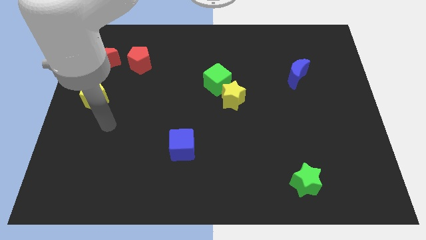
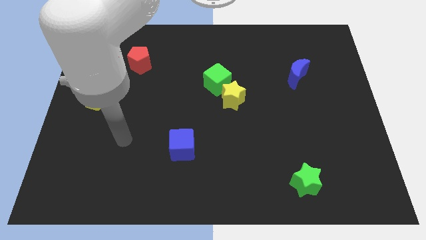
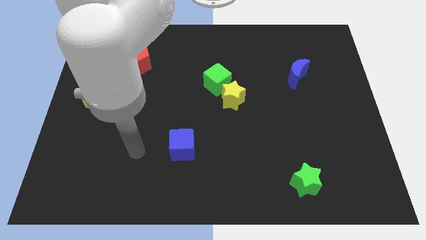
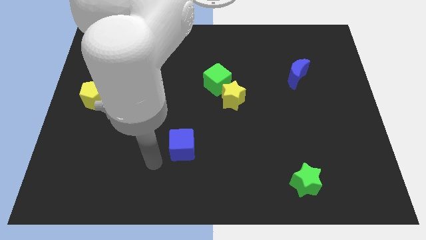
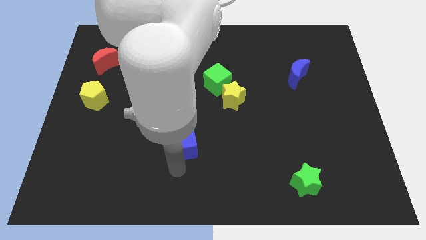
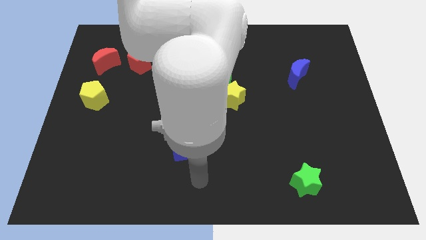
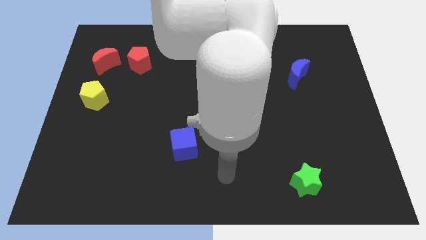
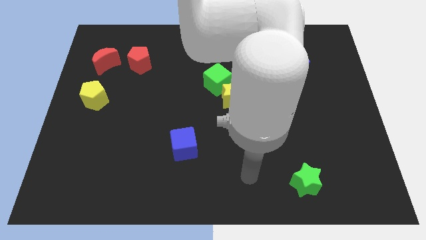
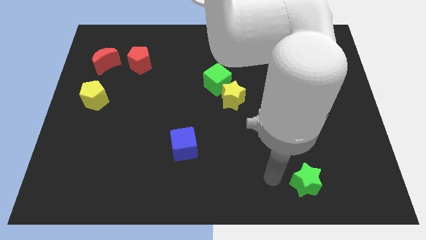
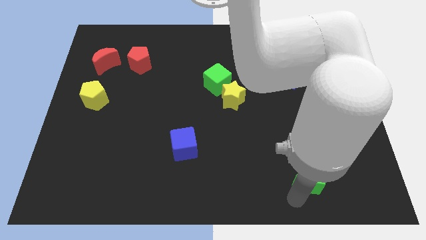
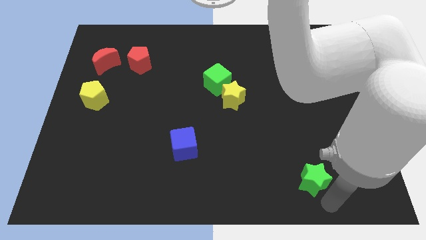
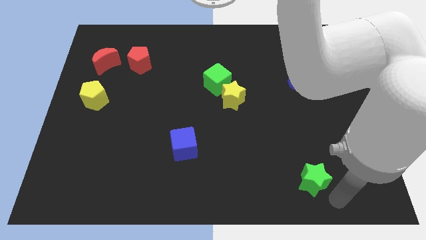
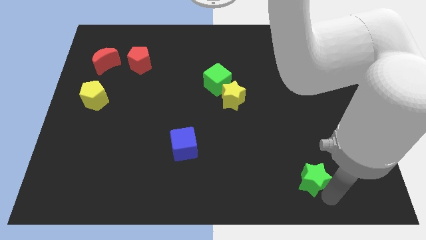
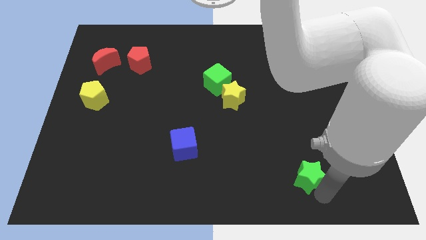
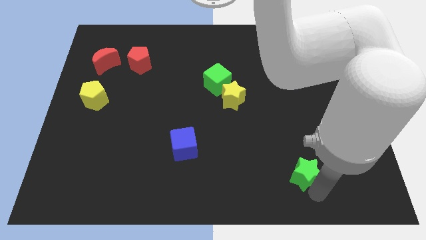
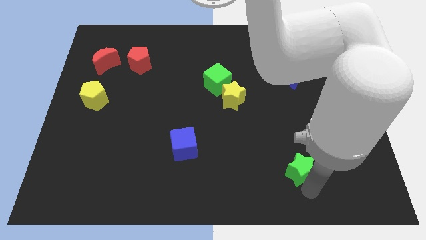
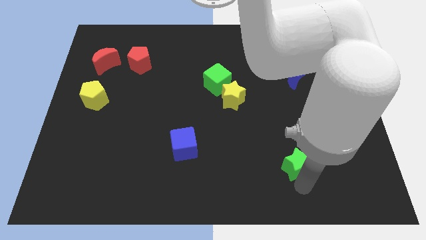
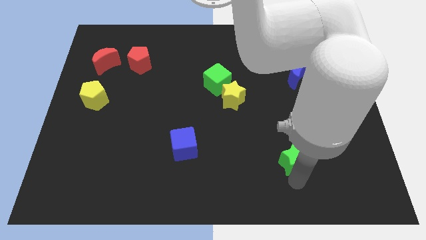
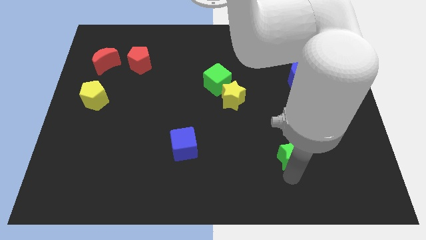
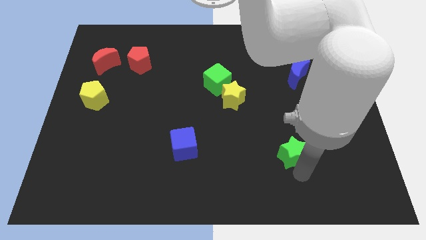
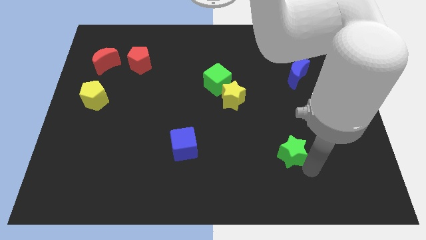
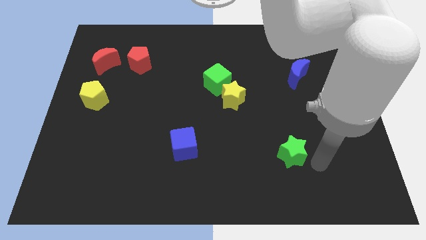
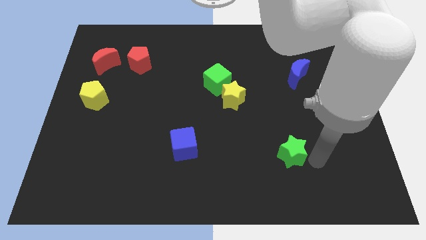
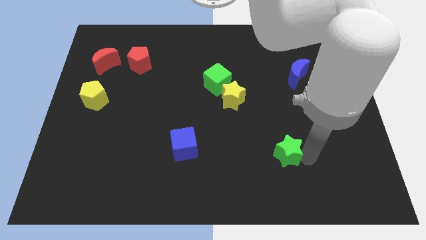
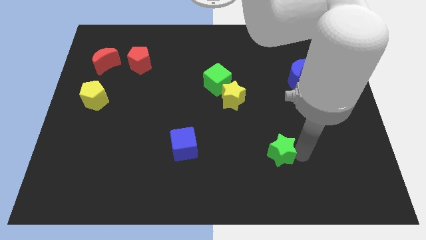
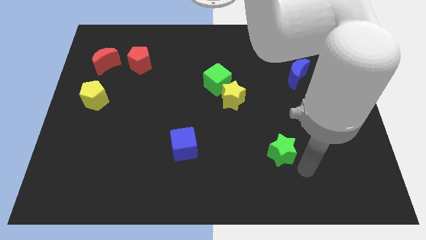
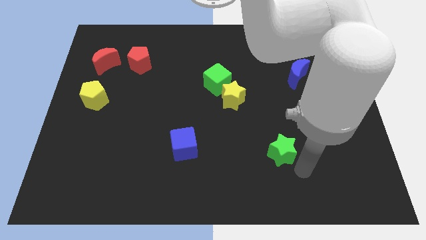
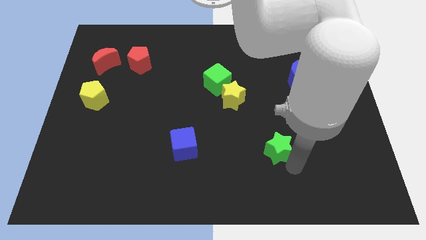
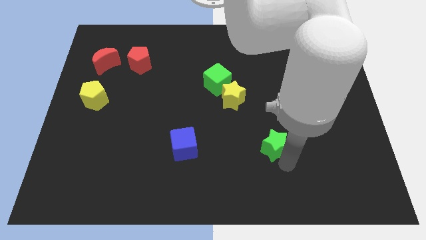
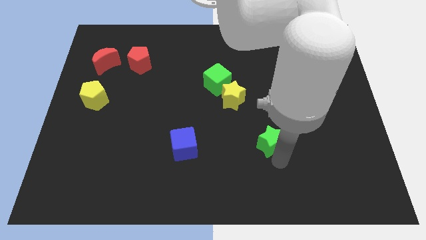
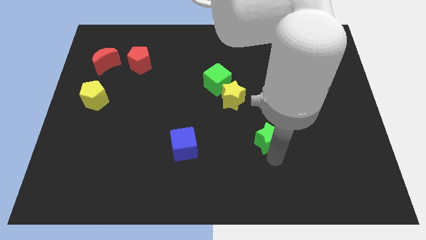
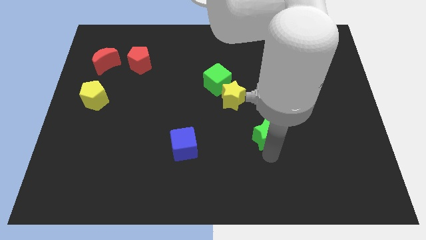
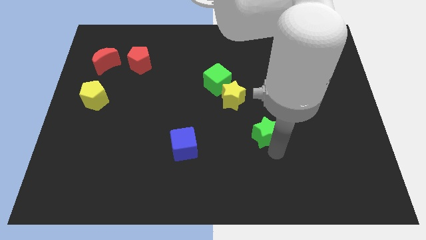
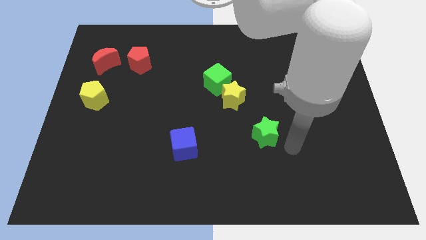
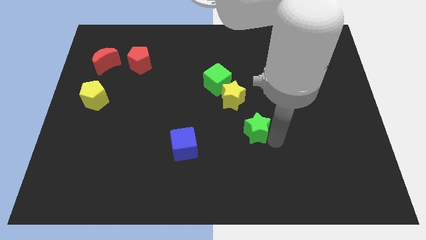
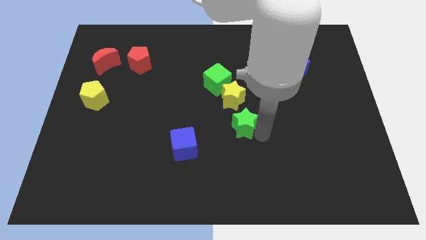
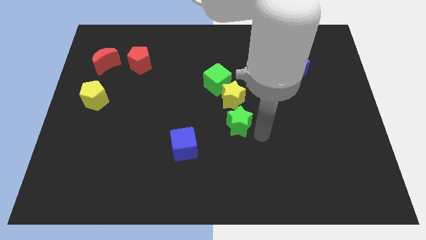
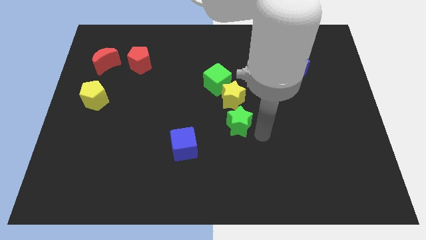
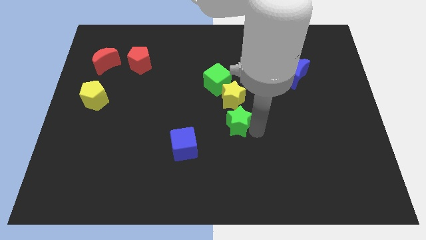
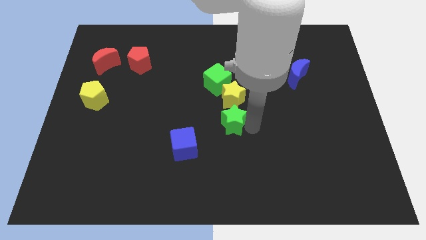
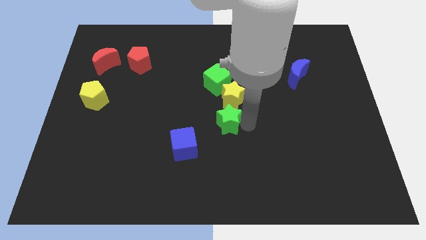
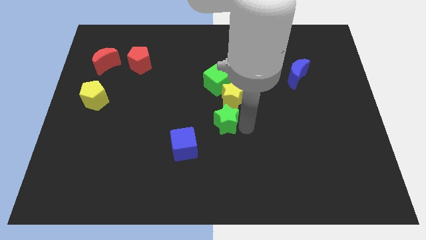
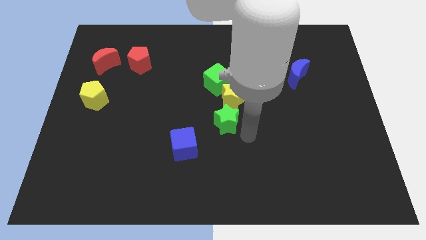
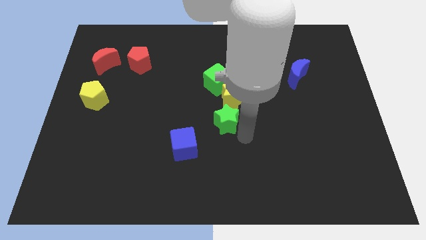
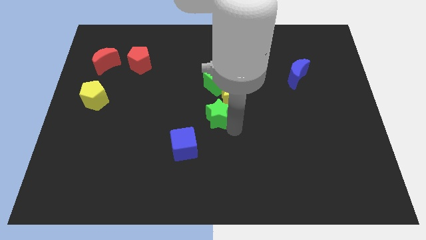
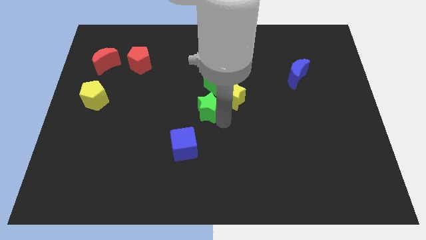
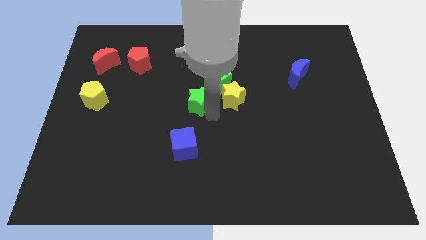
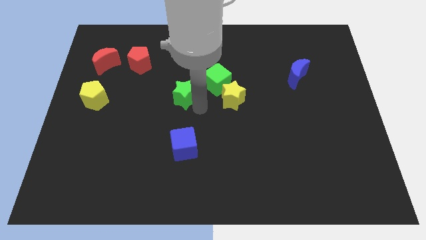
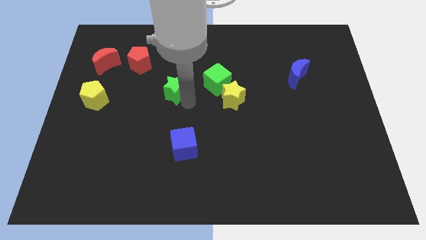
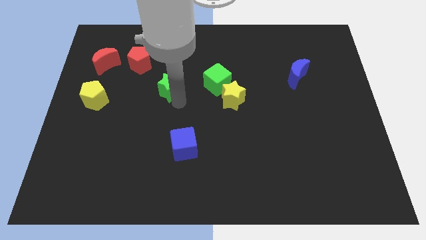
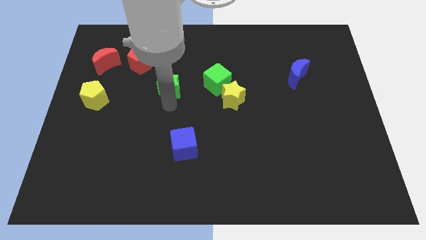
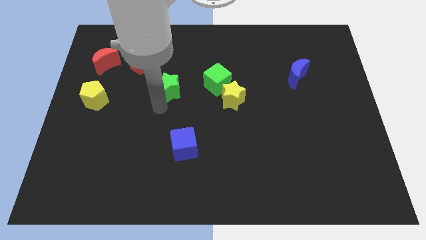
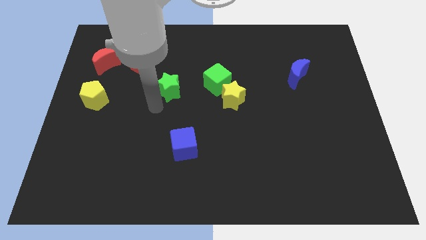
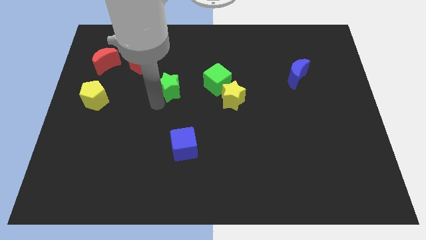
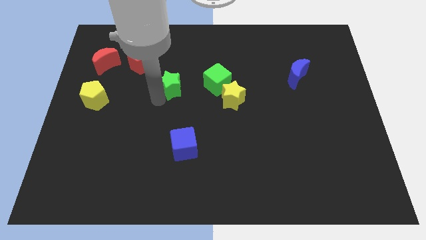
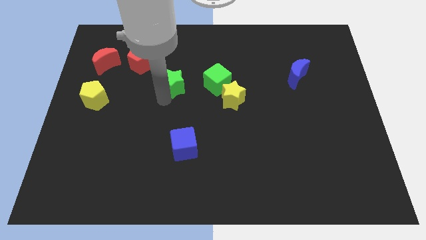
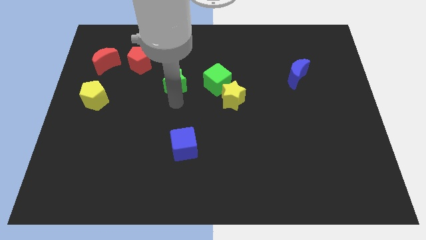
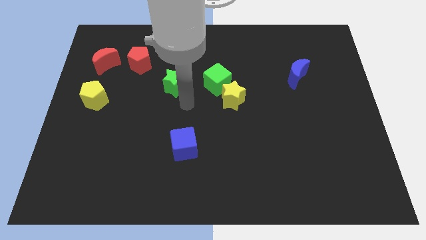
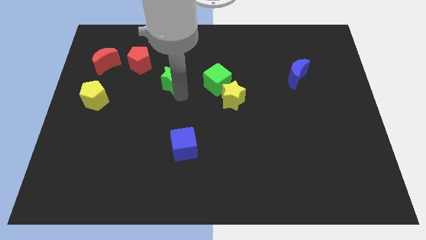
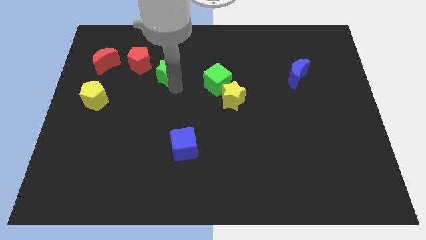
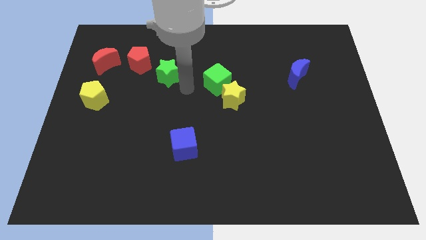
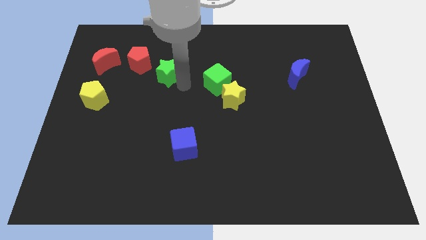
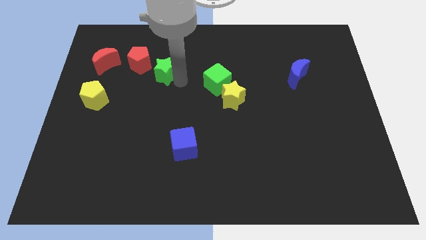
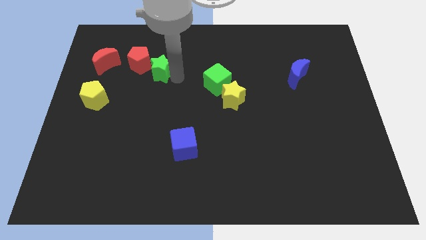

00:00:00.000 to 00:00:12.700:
slide the green star just right of the red moon
